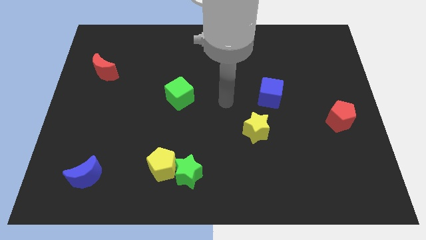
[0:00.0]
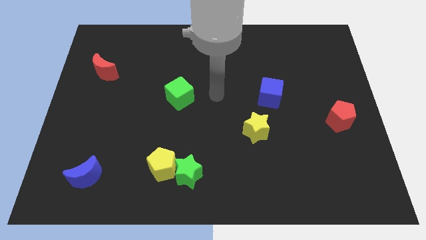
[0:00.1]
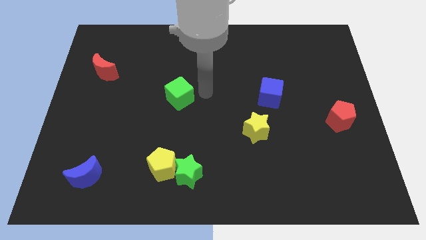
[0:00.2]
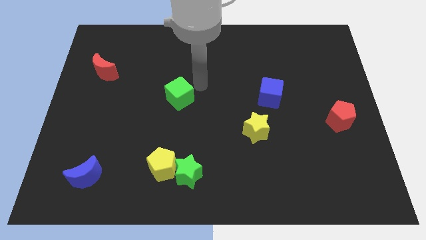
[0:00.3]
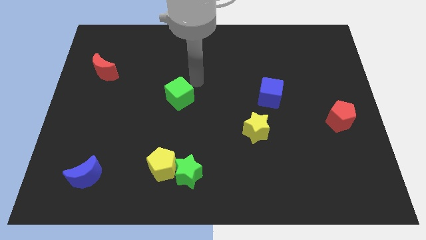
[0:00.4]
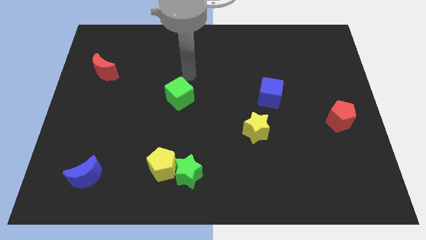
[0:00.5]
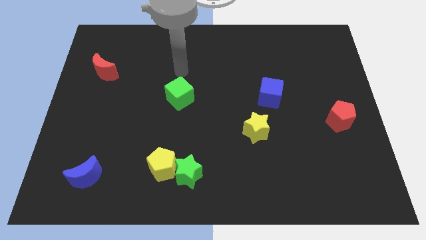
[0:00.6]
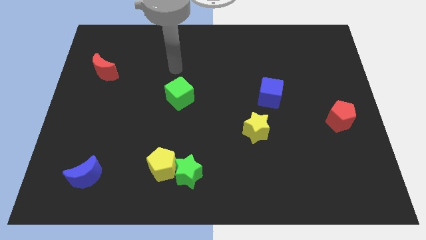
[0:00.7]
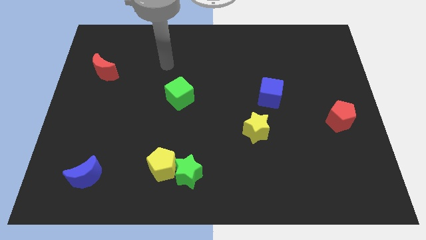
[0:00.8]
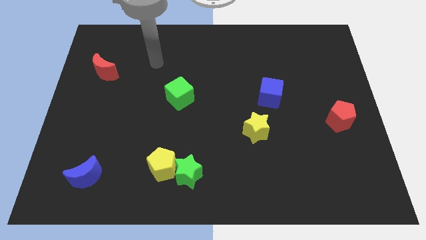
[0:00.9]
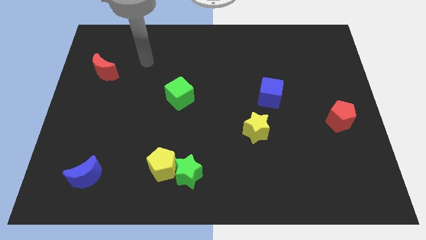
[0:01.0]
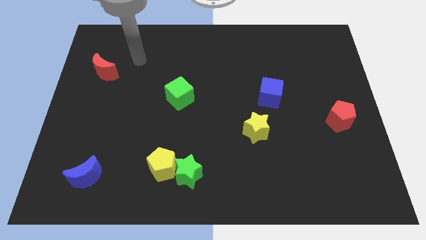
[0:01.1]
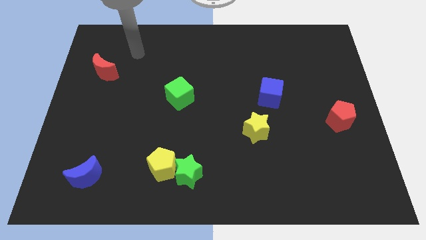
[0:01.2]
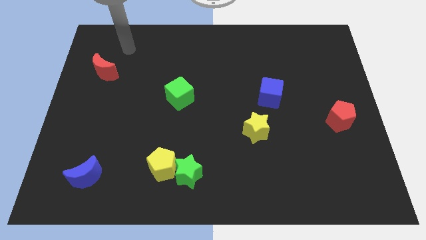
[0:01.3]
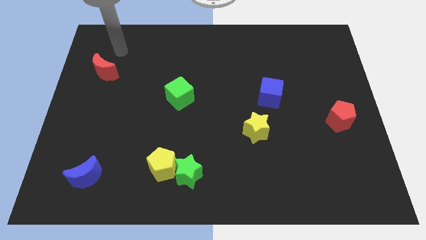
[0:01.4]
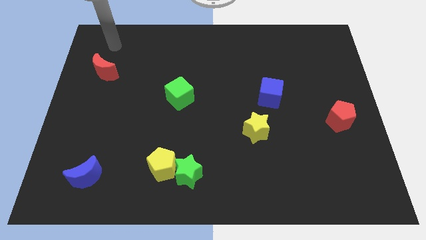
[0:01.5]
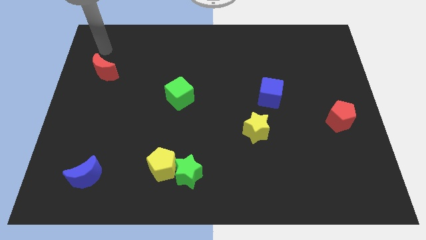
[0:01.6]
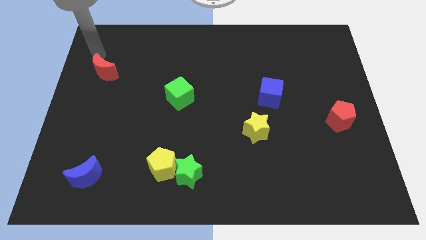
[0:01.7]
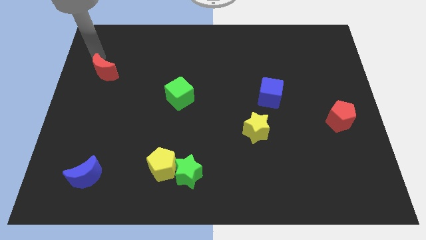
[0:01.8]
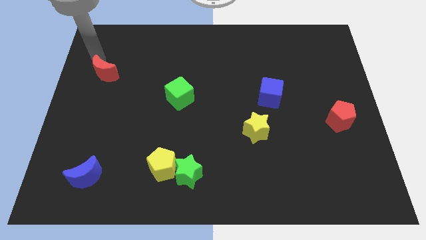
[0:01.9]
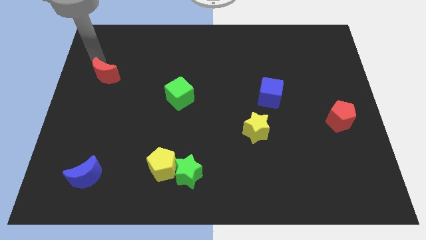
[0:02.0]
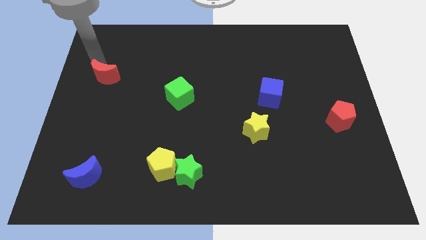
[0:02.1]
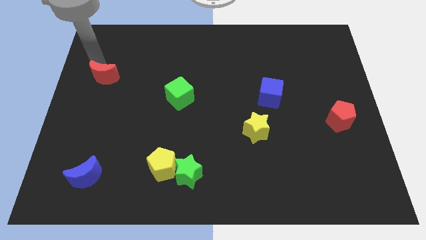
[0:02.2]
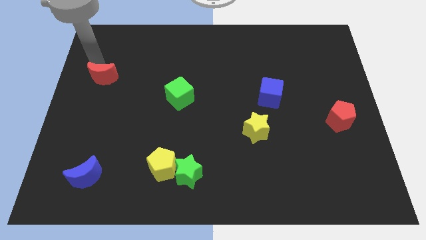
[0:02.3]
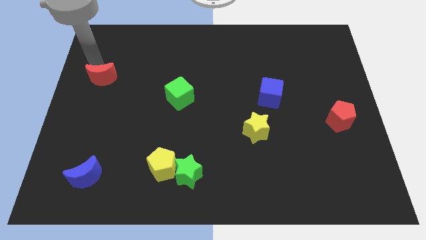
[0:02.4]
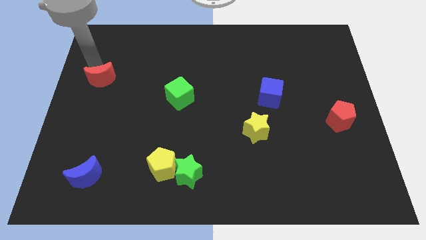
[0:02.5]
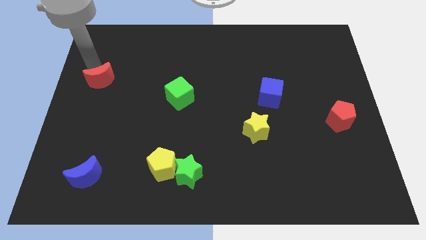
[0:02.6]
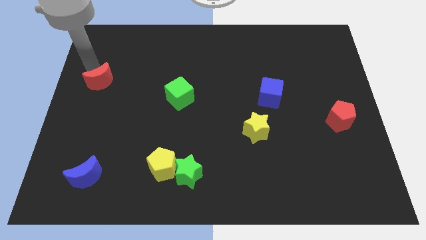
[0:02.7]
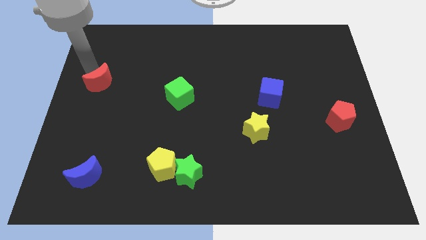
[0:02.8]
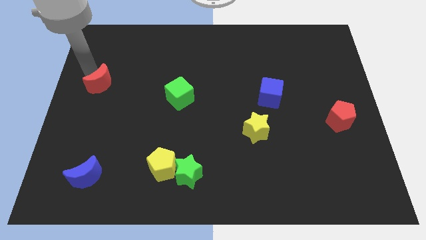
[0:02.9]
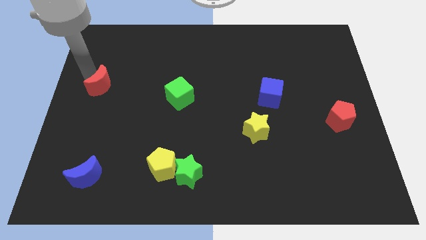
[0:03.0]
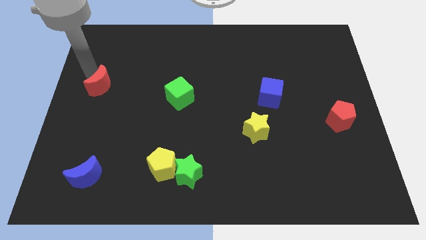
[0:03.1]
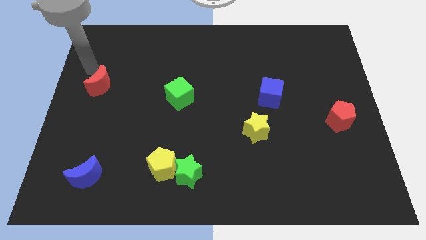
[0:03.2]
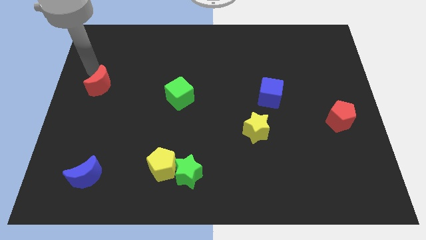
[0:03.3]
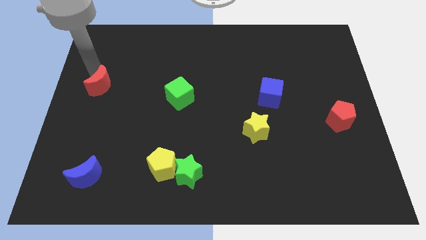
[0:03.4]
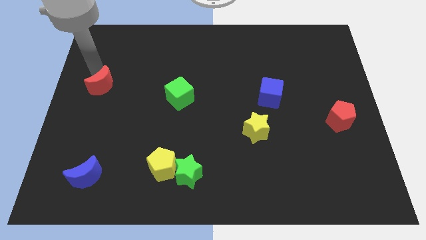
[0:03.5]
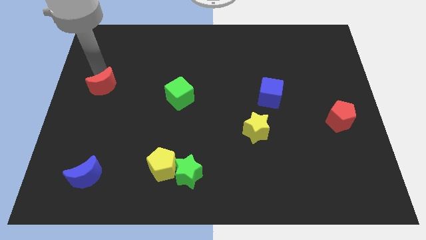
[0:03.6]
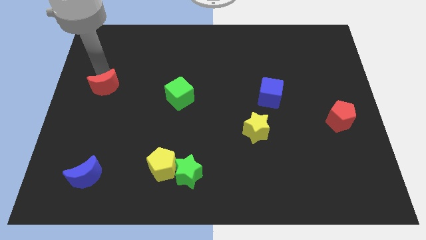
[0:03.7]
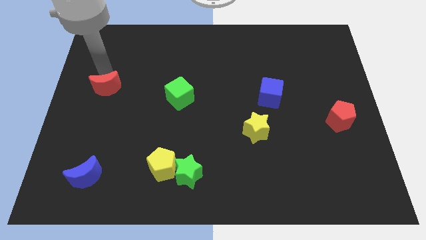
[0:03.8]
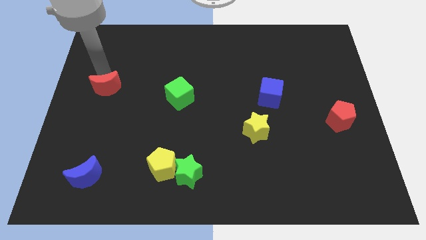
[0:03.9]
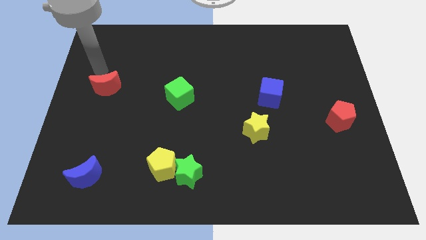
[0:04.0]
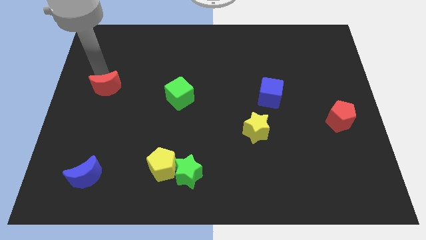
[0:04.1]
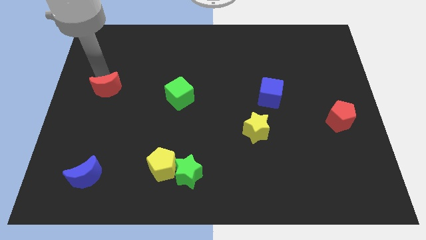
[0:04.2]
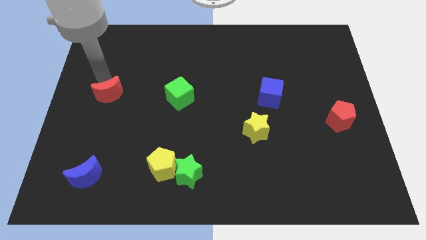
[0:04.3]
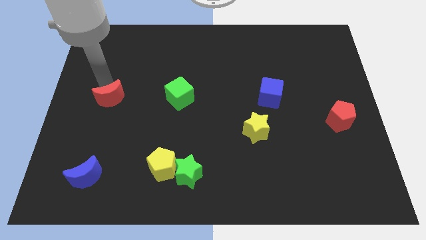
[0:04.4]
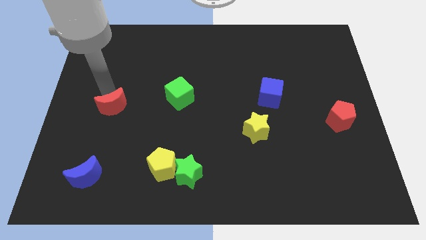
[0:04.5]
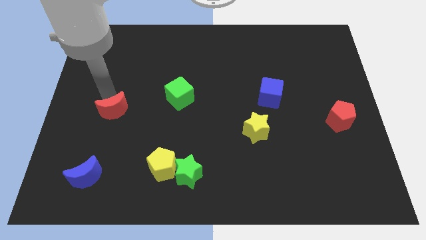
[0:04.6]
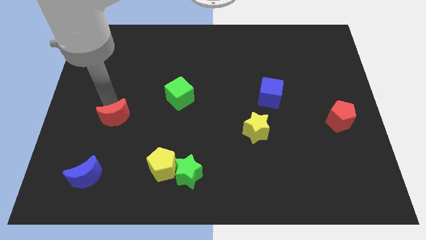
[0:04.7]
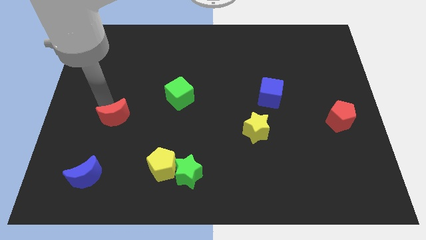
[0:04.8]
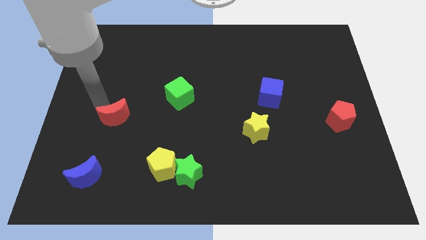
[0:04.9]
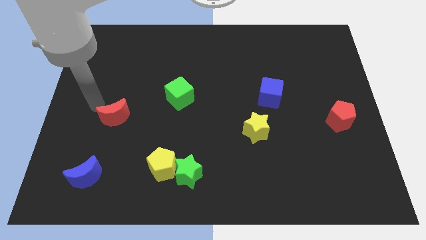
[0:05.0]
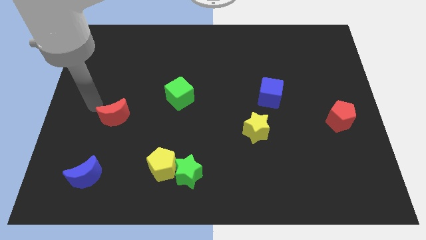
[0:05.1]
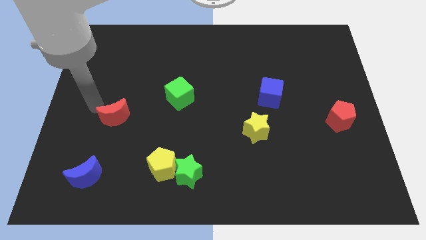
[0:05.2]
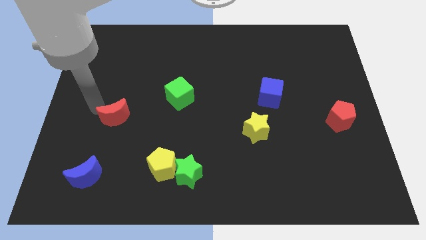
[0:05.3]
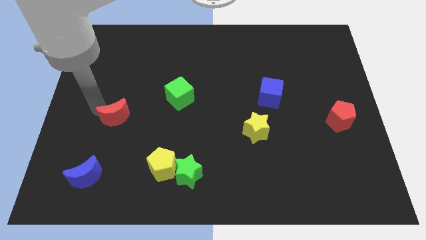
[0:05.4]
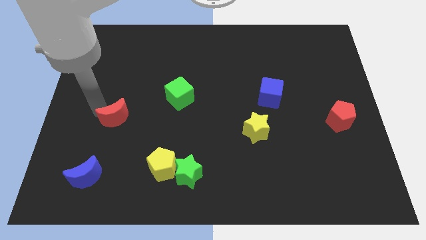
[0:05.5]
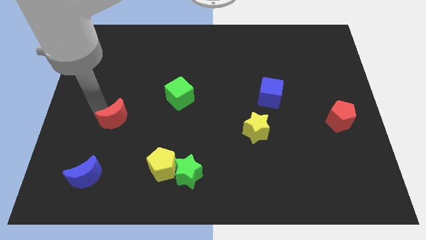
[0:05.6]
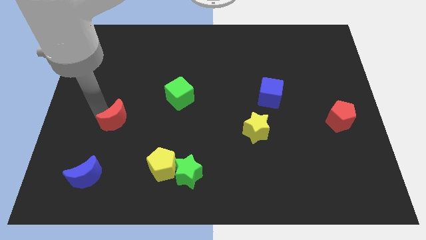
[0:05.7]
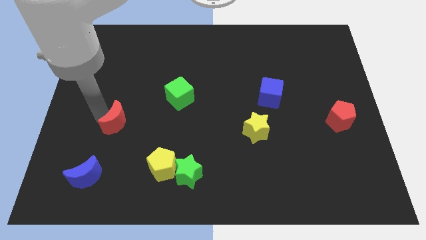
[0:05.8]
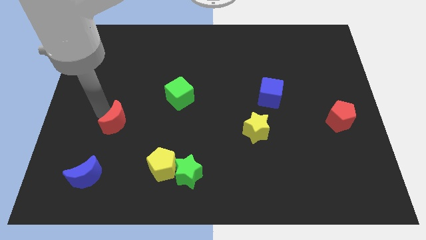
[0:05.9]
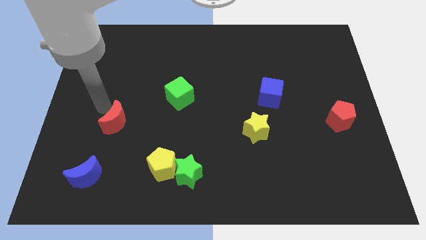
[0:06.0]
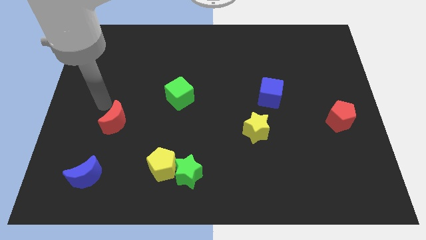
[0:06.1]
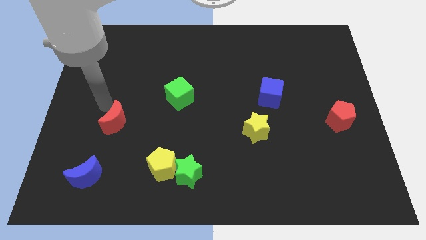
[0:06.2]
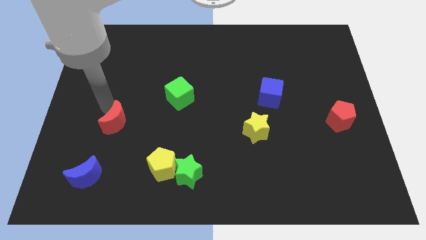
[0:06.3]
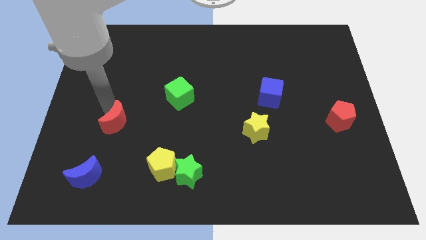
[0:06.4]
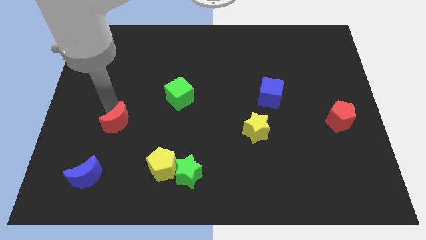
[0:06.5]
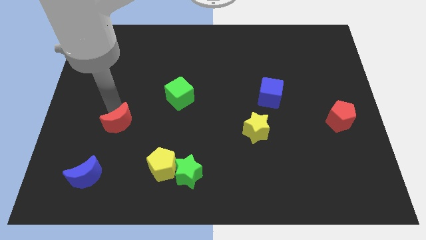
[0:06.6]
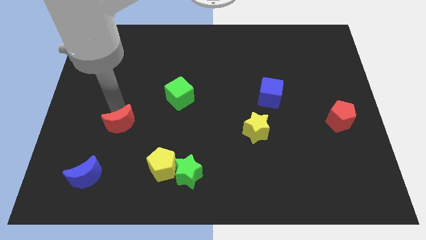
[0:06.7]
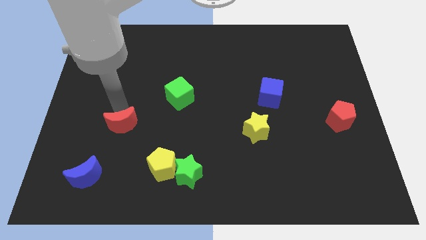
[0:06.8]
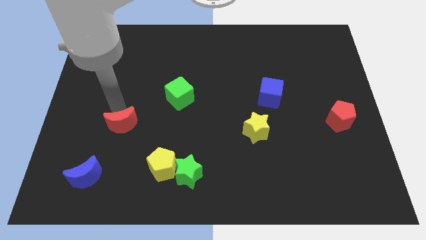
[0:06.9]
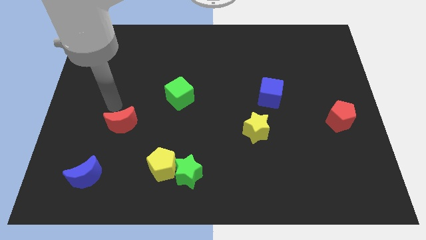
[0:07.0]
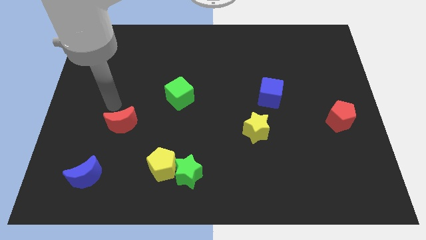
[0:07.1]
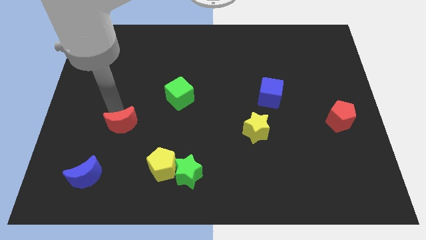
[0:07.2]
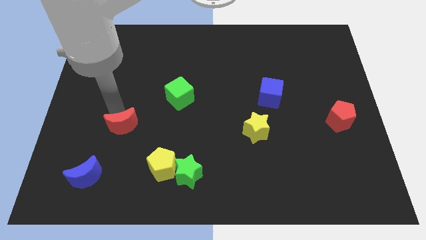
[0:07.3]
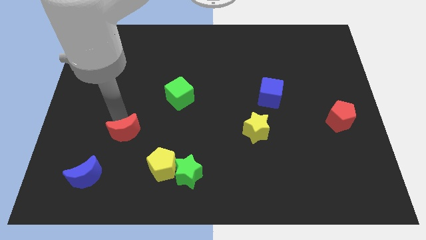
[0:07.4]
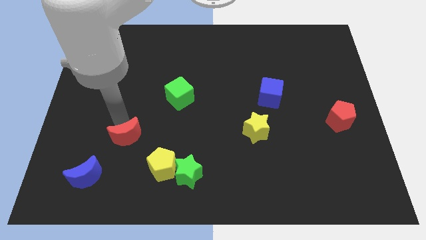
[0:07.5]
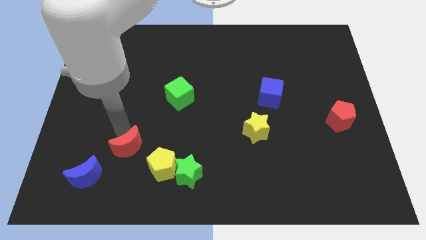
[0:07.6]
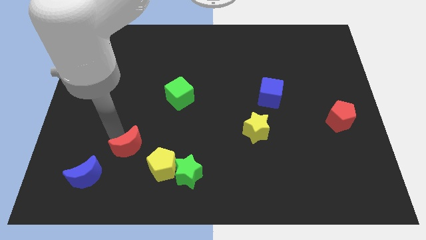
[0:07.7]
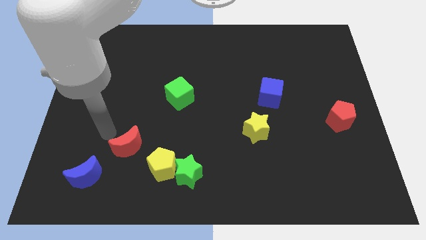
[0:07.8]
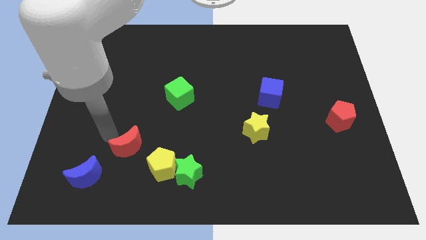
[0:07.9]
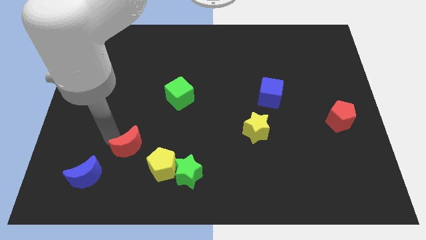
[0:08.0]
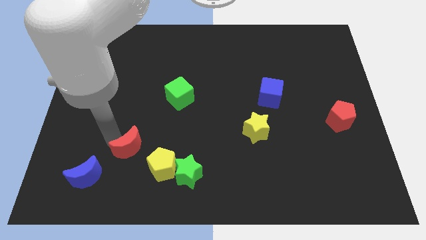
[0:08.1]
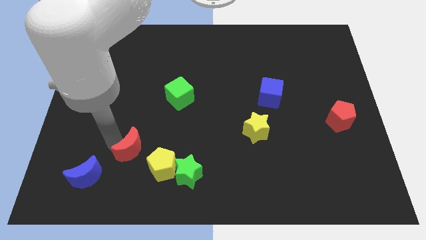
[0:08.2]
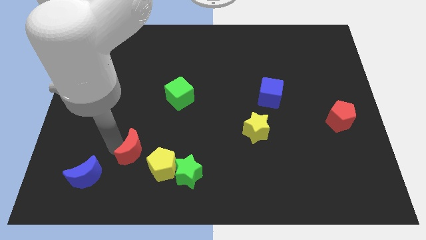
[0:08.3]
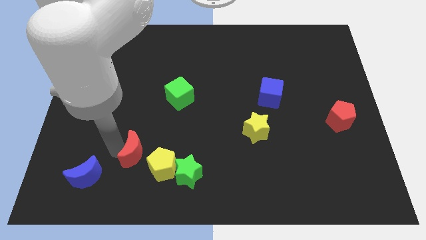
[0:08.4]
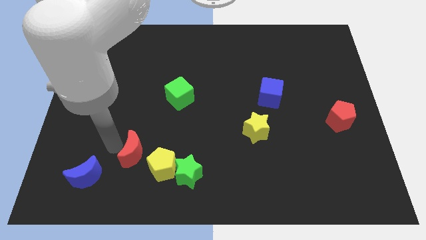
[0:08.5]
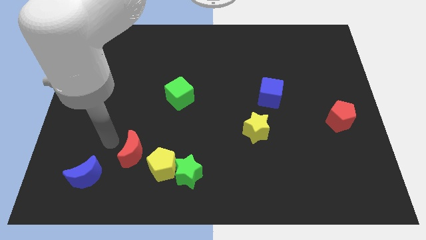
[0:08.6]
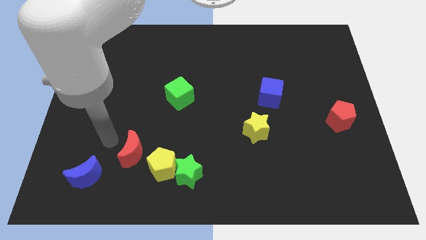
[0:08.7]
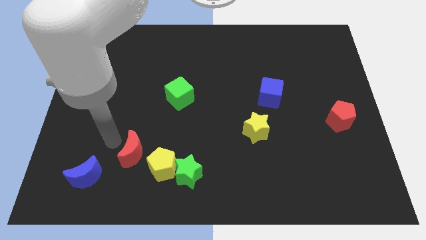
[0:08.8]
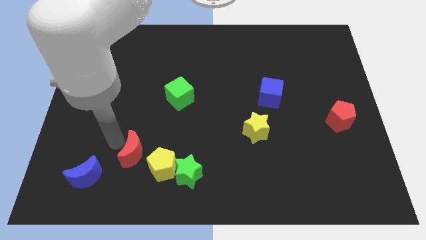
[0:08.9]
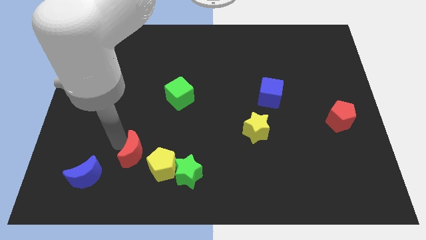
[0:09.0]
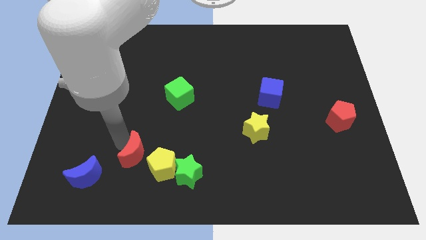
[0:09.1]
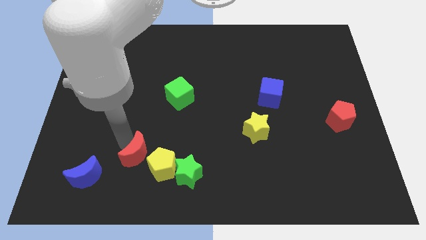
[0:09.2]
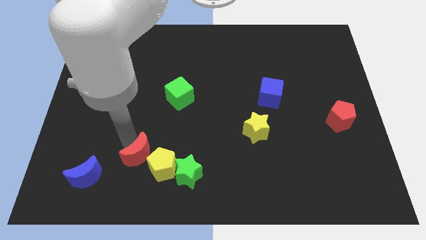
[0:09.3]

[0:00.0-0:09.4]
slide the red moon next to the yellow pentagon
